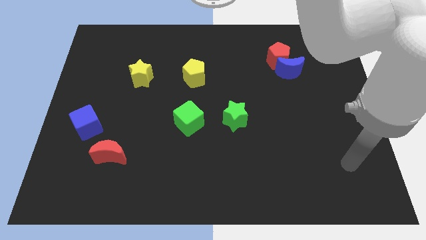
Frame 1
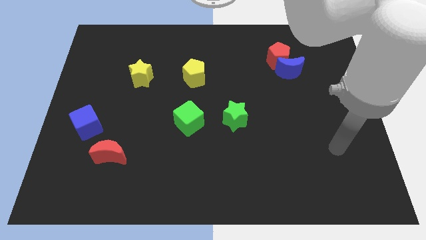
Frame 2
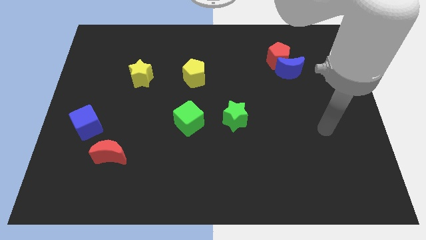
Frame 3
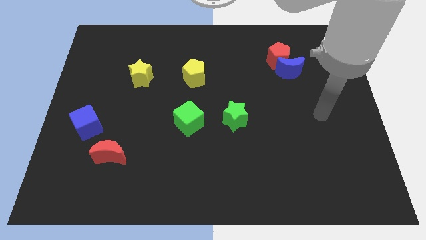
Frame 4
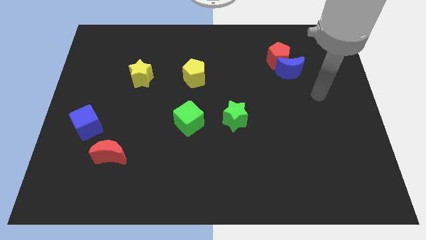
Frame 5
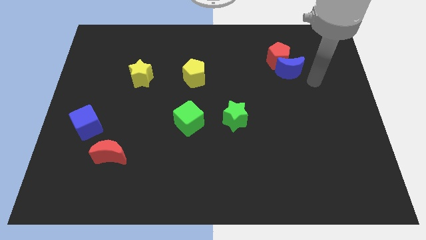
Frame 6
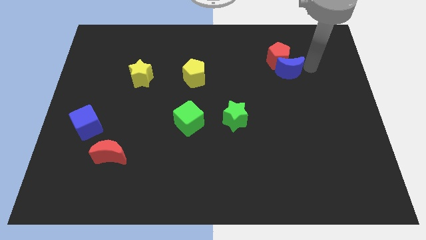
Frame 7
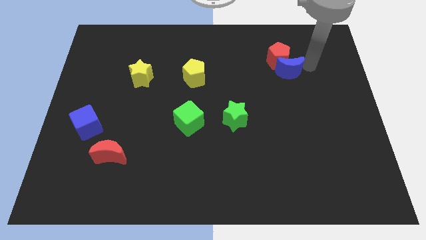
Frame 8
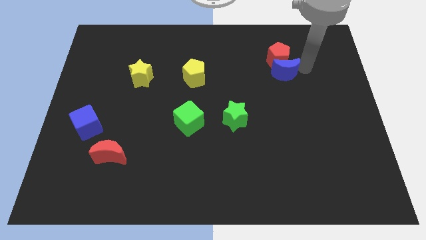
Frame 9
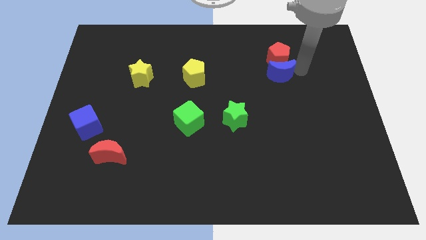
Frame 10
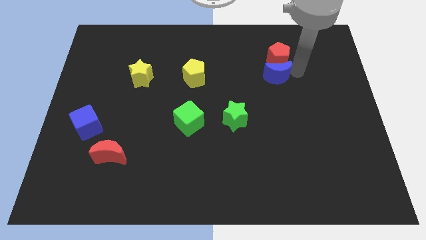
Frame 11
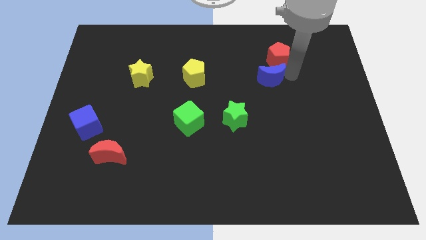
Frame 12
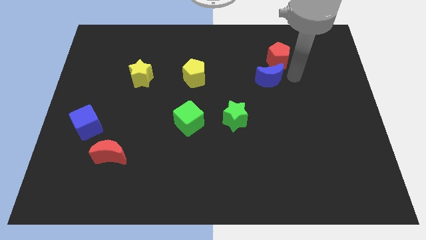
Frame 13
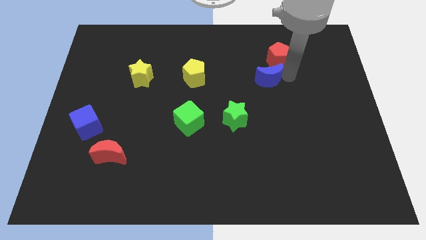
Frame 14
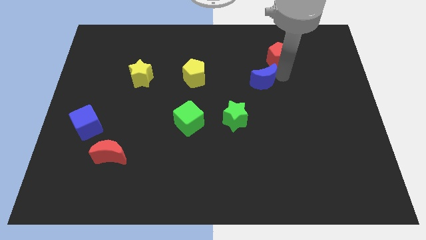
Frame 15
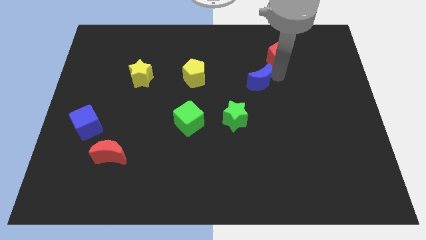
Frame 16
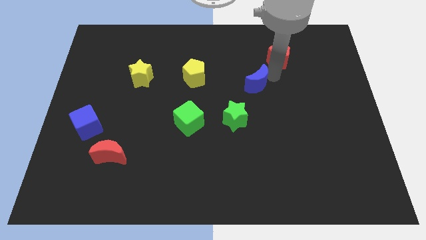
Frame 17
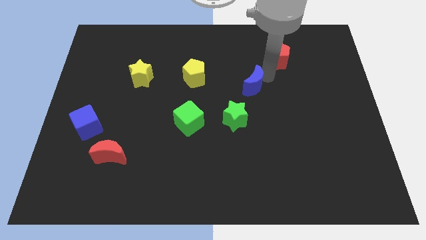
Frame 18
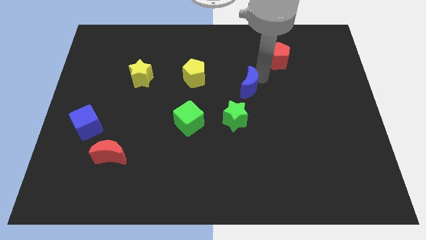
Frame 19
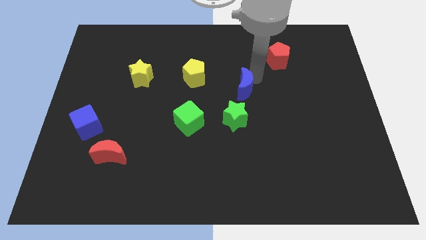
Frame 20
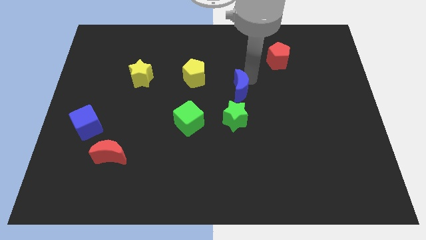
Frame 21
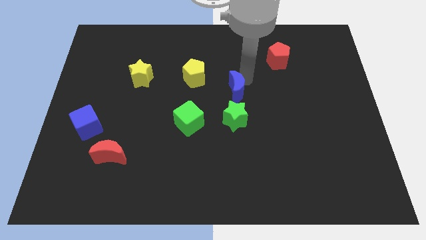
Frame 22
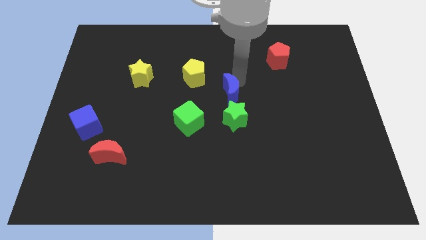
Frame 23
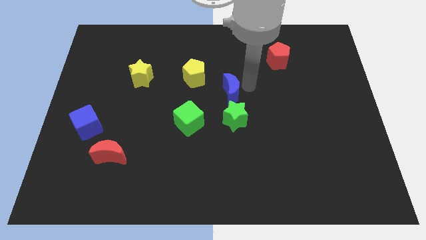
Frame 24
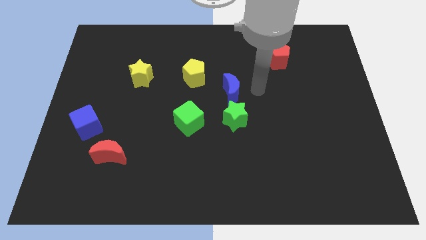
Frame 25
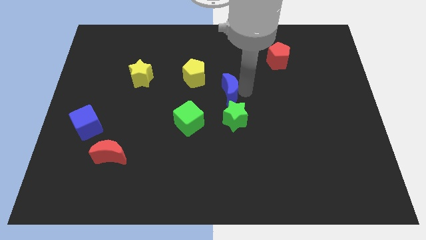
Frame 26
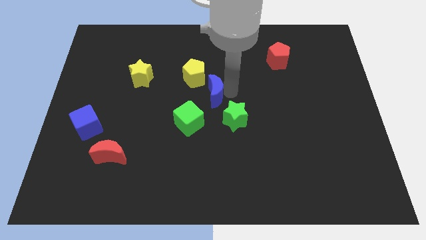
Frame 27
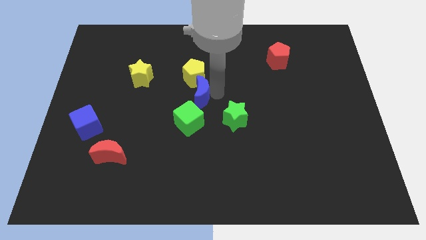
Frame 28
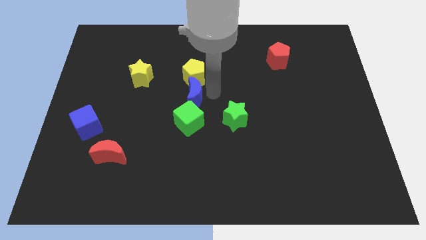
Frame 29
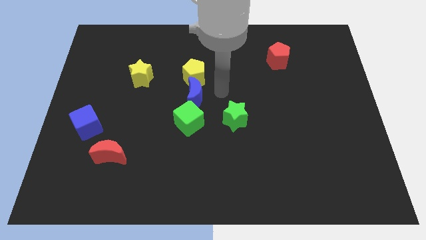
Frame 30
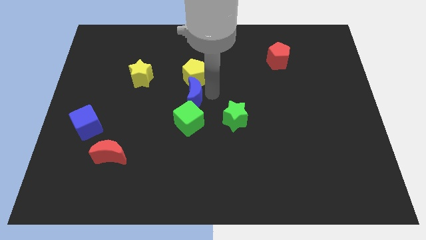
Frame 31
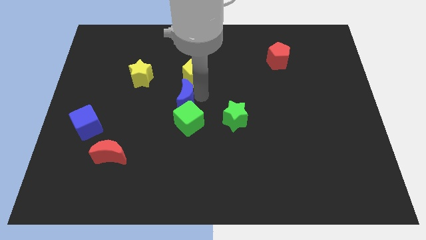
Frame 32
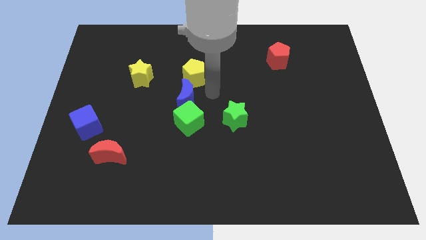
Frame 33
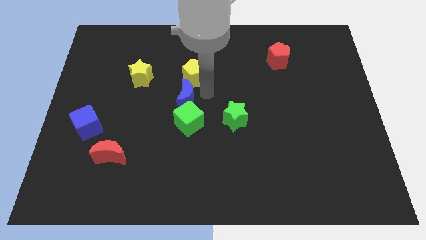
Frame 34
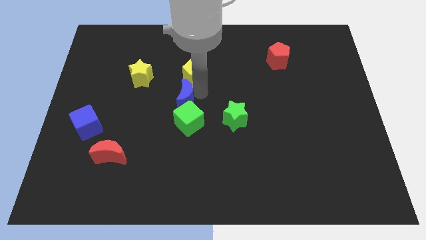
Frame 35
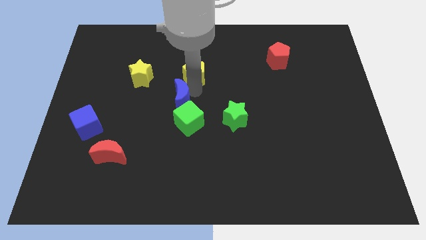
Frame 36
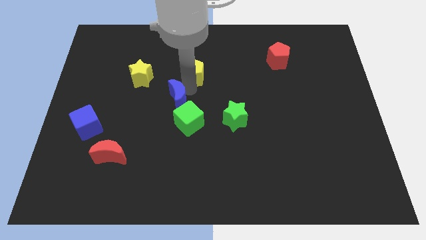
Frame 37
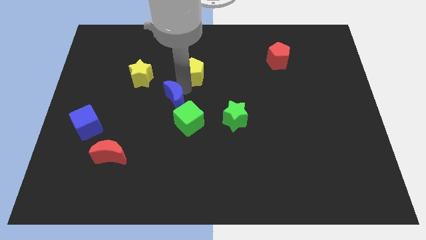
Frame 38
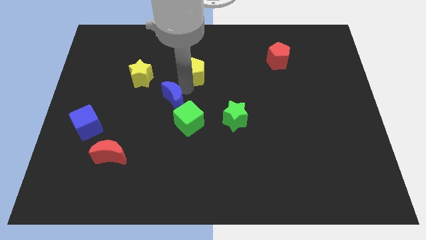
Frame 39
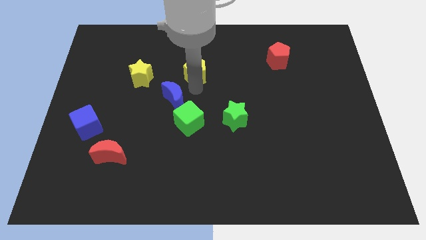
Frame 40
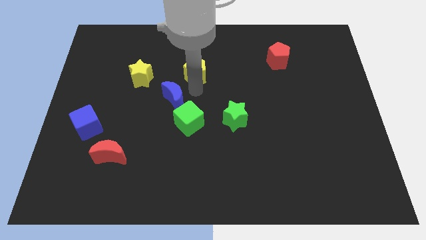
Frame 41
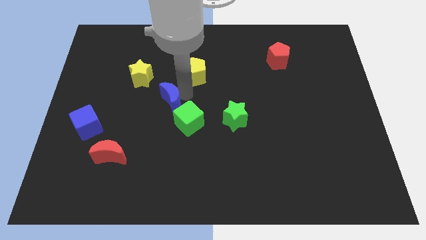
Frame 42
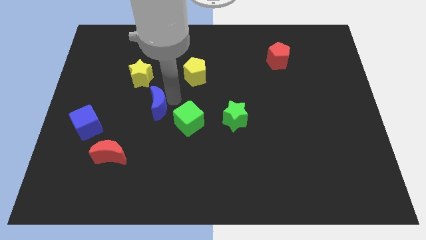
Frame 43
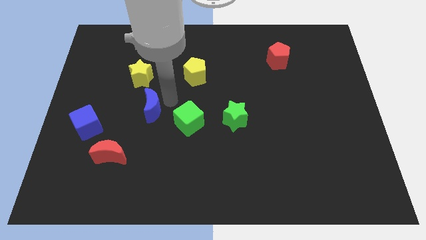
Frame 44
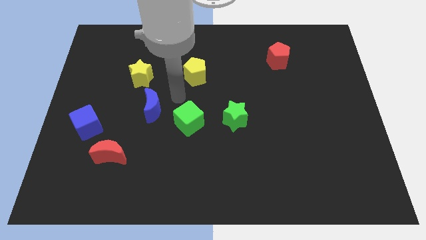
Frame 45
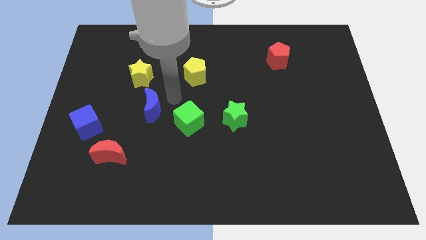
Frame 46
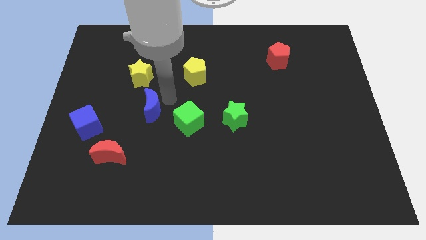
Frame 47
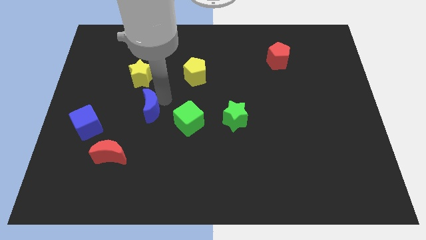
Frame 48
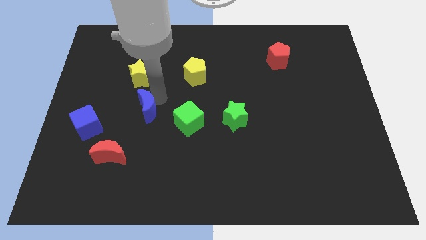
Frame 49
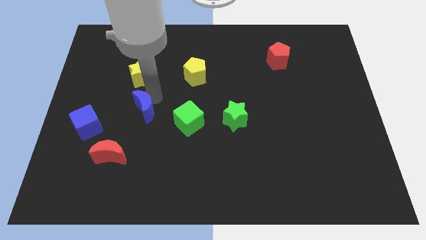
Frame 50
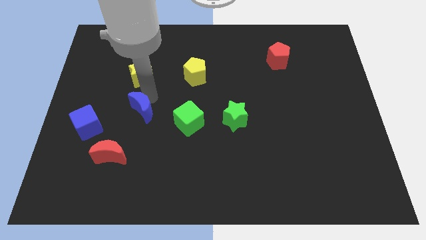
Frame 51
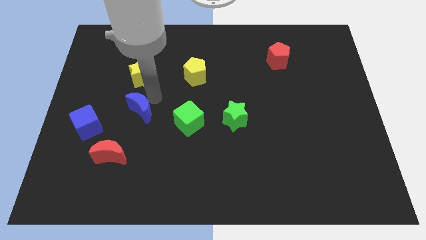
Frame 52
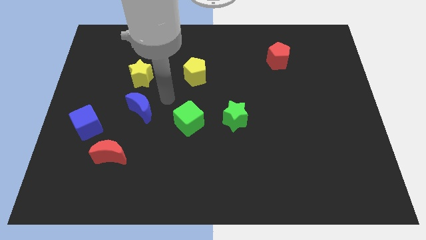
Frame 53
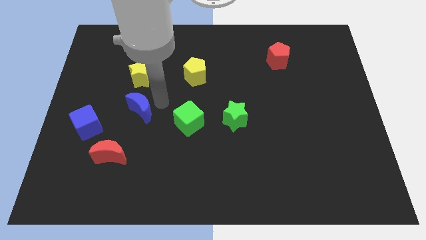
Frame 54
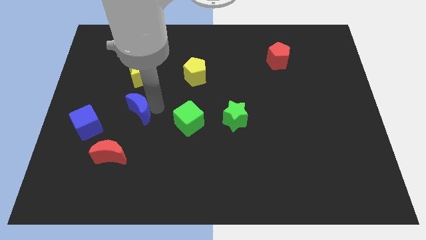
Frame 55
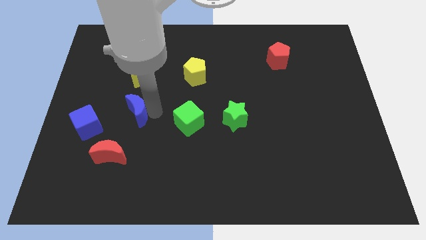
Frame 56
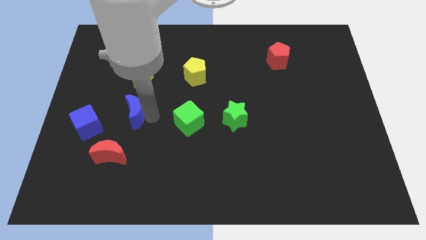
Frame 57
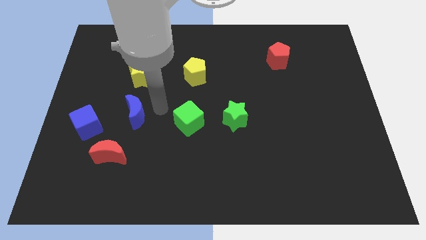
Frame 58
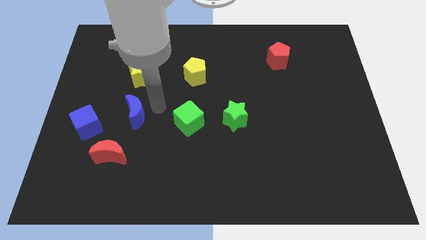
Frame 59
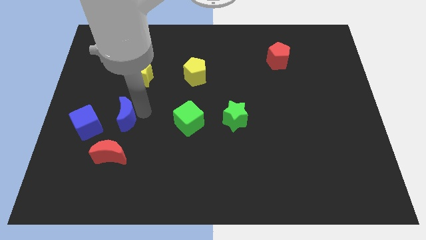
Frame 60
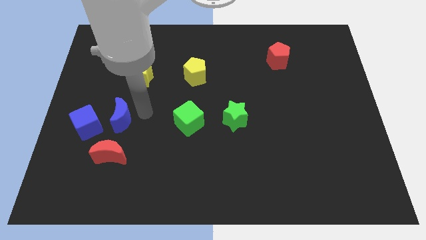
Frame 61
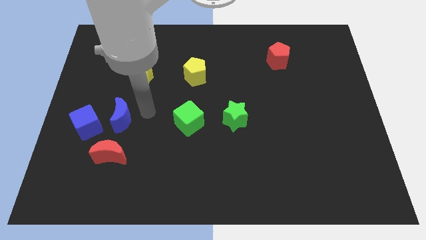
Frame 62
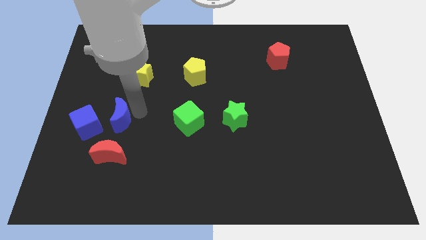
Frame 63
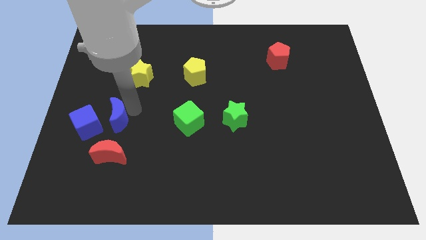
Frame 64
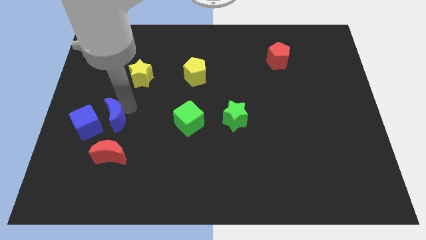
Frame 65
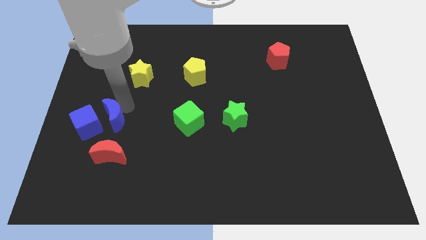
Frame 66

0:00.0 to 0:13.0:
slide the blue moon close to the blue cube

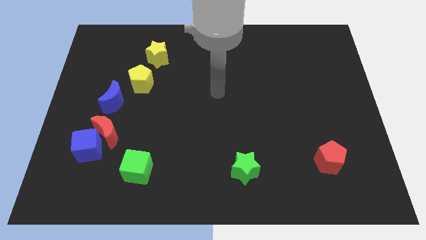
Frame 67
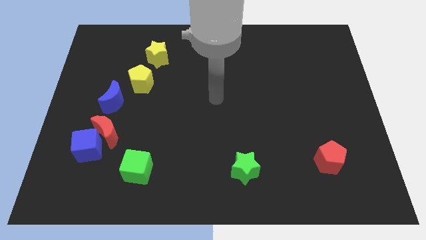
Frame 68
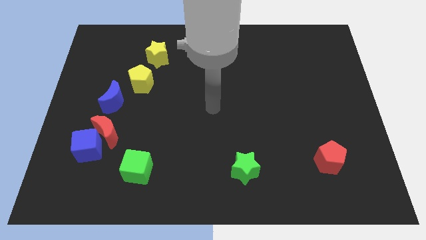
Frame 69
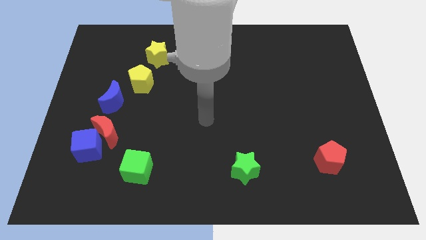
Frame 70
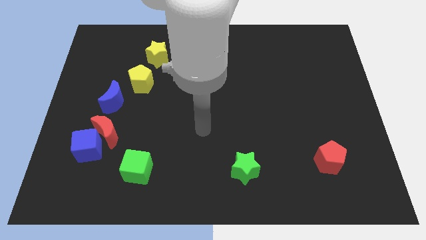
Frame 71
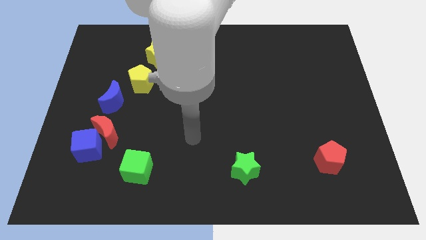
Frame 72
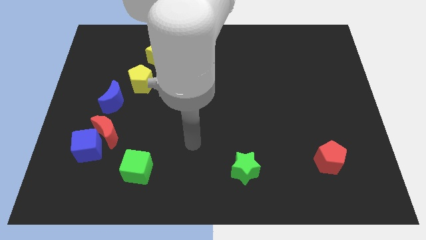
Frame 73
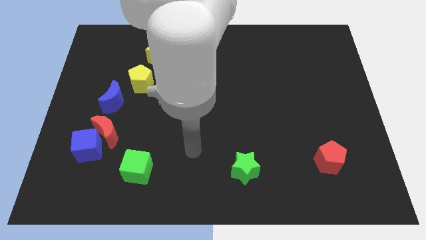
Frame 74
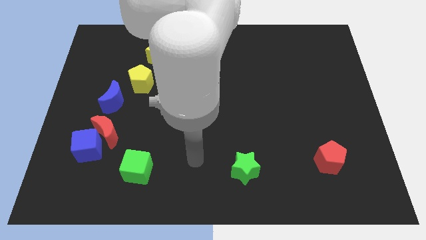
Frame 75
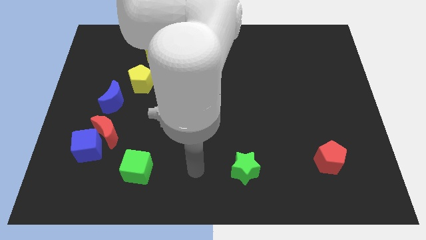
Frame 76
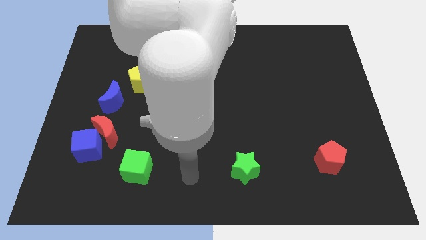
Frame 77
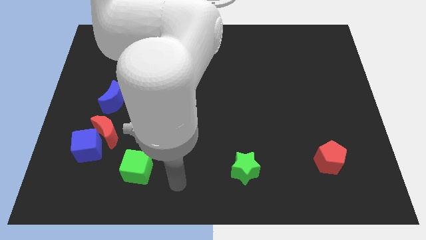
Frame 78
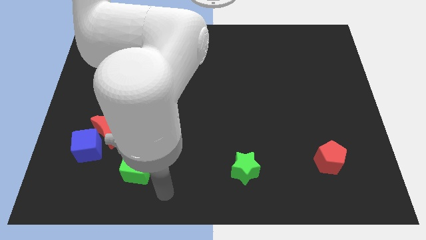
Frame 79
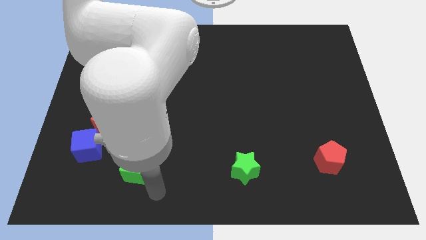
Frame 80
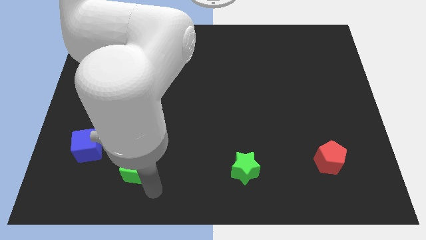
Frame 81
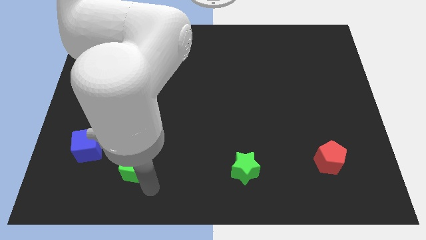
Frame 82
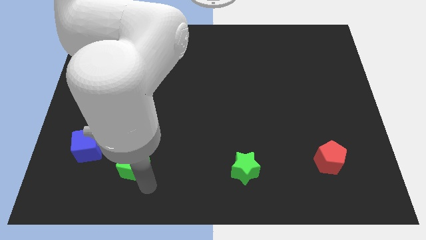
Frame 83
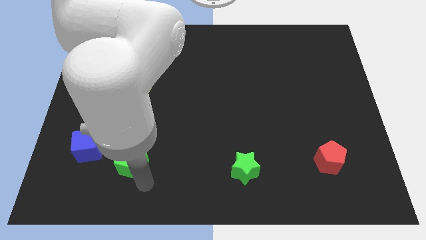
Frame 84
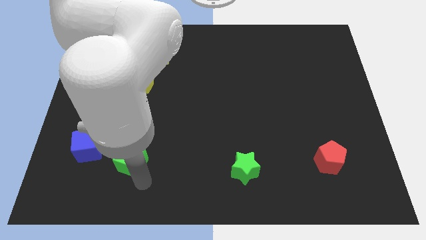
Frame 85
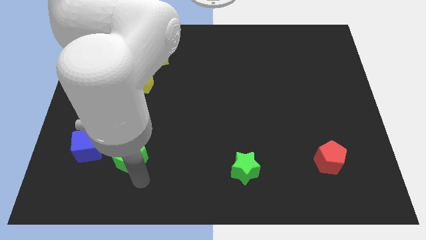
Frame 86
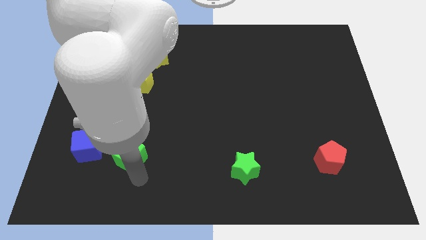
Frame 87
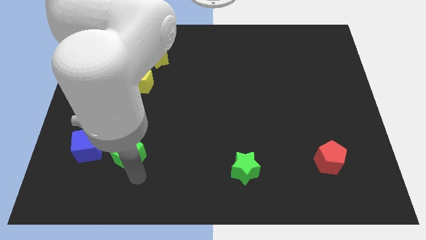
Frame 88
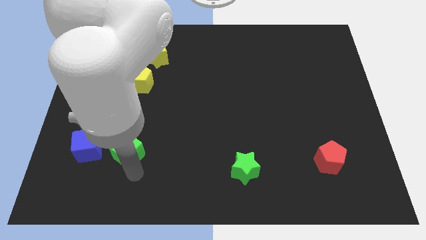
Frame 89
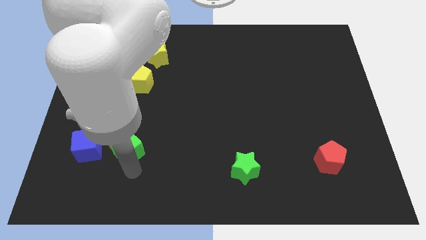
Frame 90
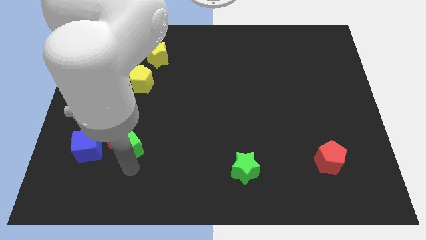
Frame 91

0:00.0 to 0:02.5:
put the green cube towards the red moon
